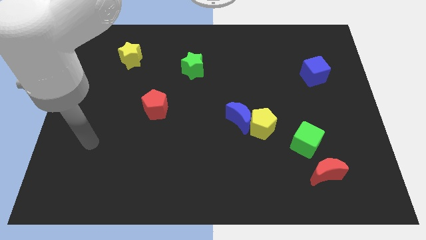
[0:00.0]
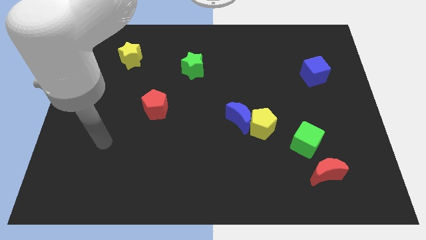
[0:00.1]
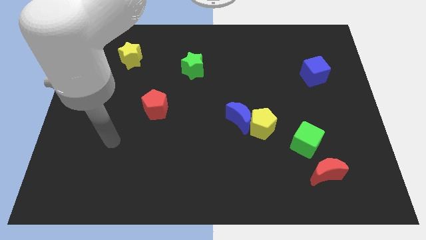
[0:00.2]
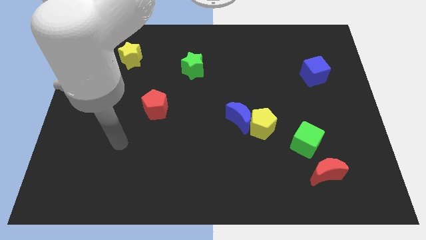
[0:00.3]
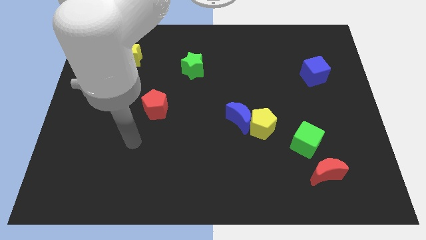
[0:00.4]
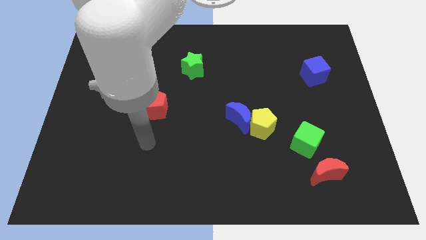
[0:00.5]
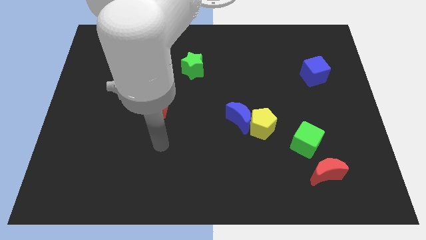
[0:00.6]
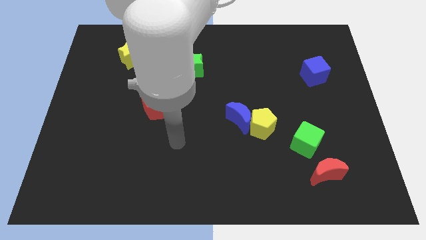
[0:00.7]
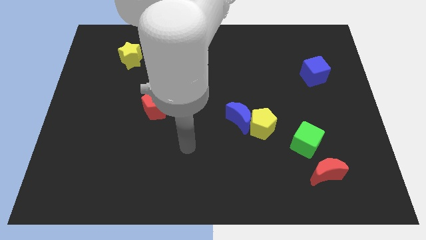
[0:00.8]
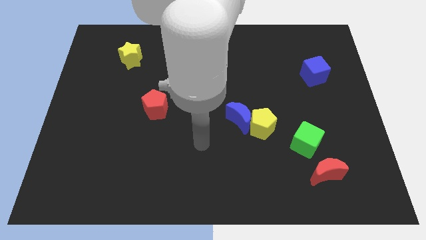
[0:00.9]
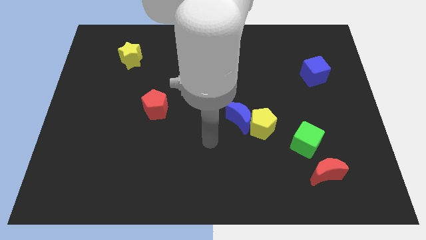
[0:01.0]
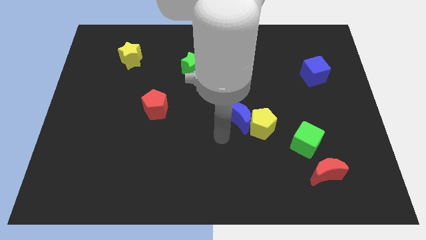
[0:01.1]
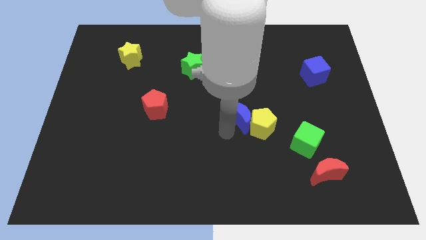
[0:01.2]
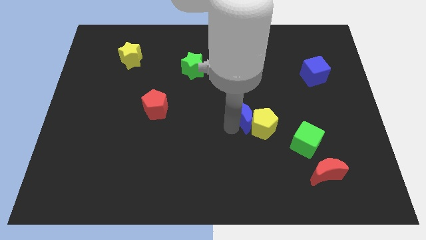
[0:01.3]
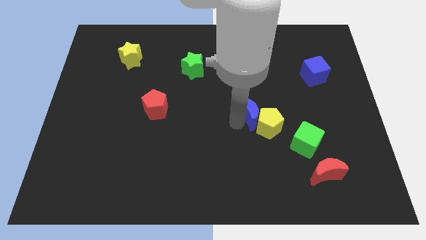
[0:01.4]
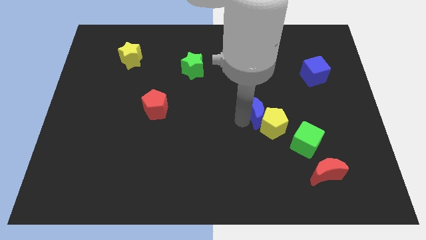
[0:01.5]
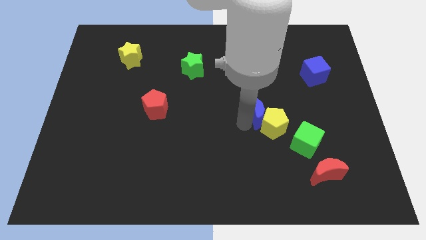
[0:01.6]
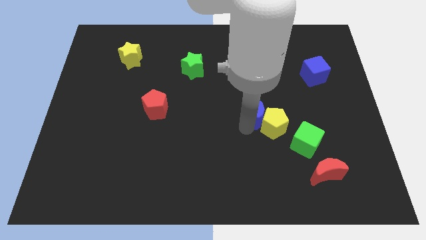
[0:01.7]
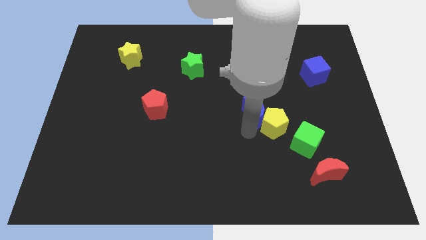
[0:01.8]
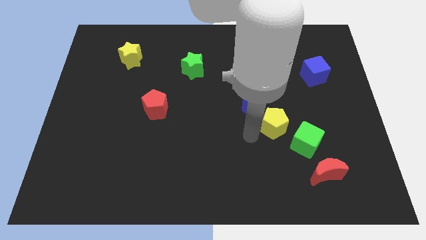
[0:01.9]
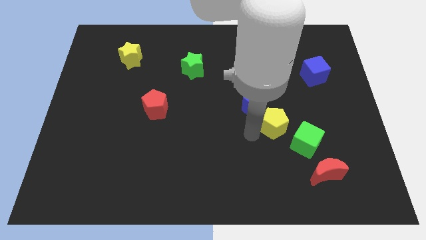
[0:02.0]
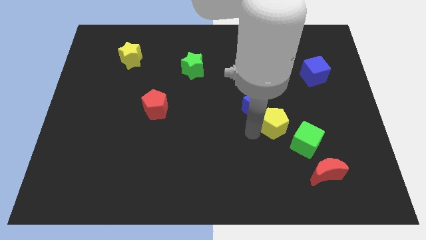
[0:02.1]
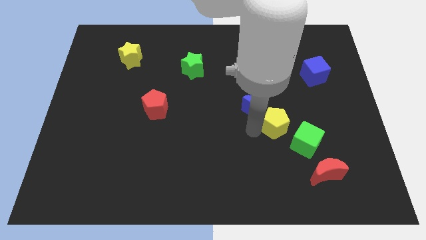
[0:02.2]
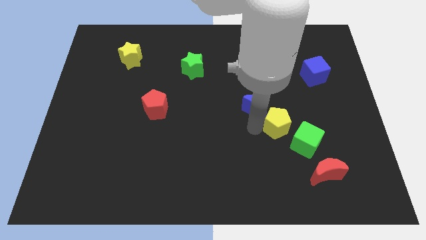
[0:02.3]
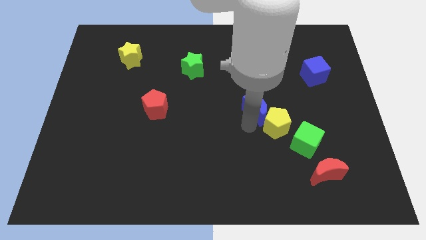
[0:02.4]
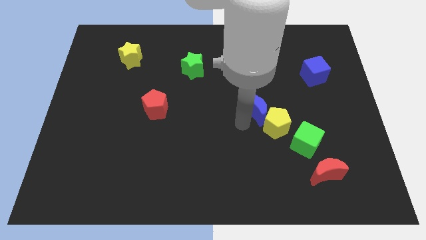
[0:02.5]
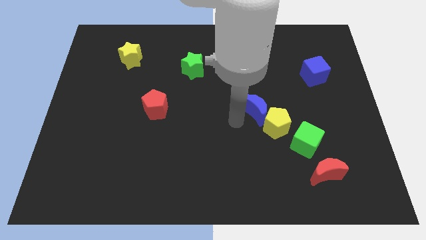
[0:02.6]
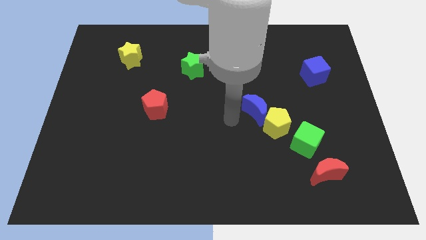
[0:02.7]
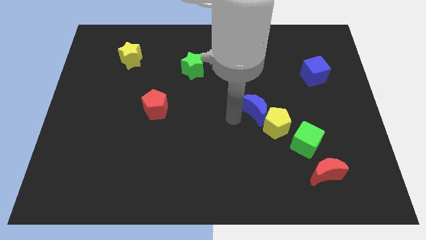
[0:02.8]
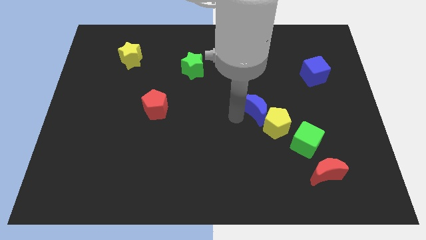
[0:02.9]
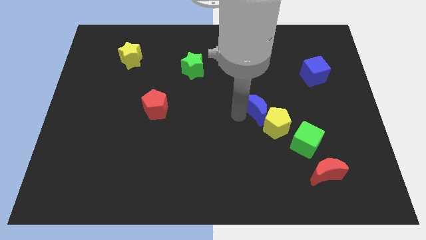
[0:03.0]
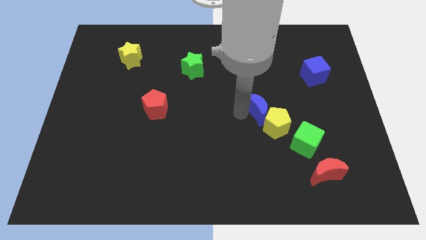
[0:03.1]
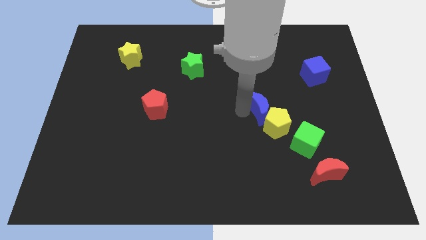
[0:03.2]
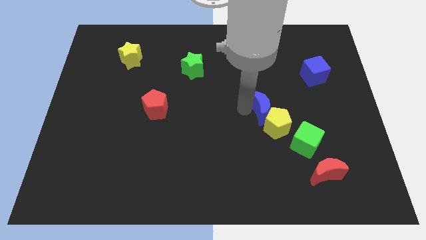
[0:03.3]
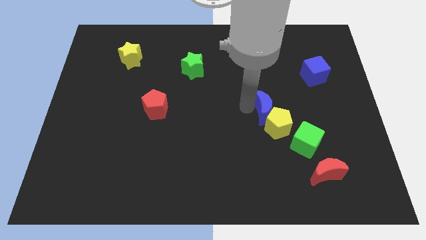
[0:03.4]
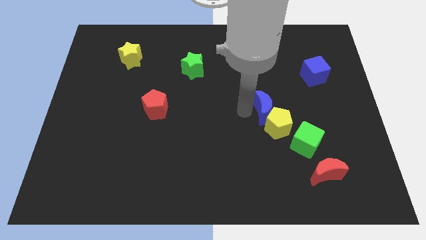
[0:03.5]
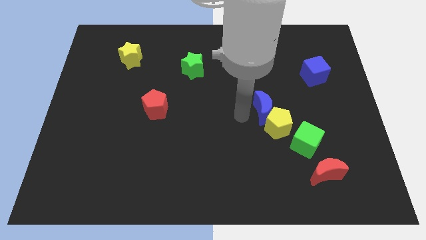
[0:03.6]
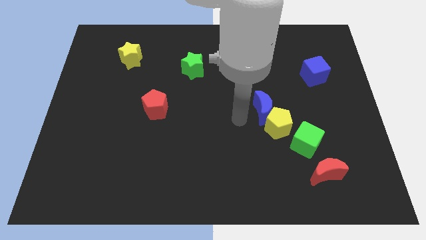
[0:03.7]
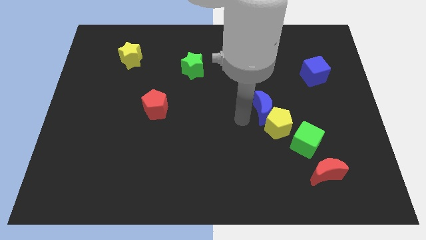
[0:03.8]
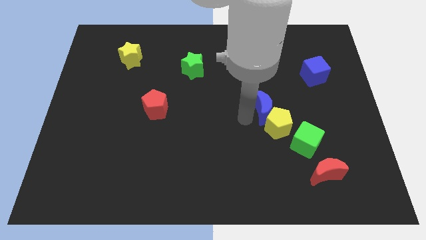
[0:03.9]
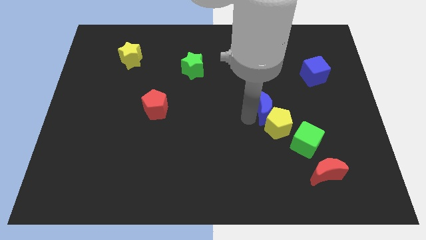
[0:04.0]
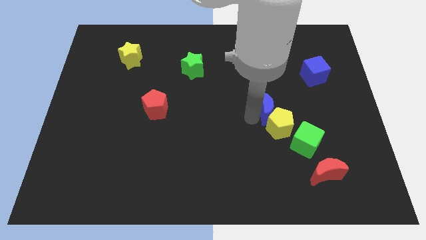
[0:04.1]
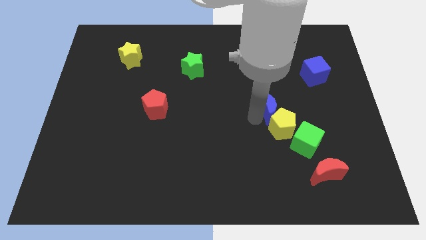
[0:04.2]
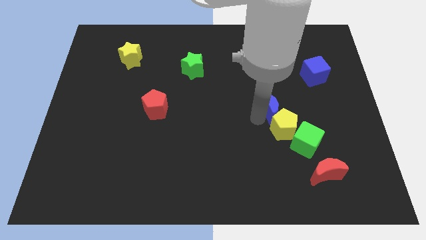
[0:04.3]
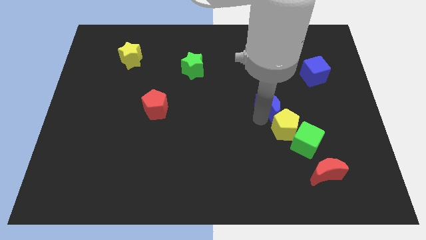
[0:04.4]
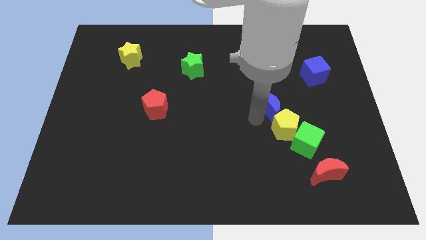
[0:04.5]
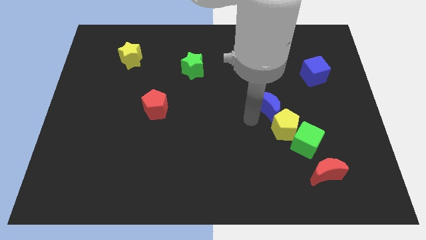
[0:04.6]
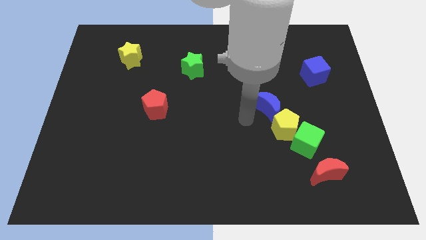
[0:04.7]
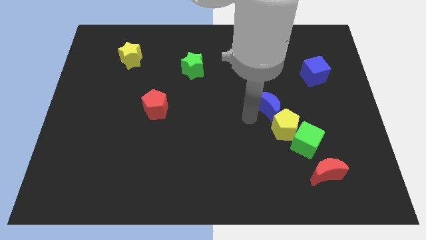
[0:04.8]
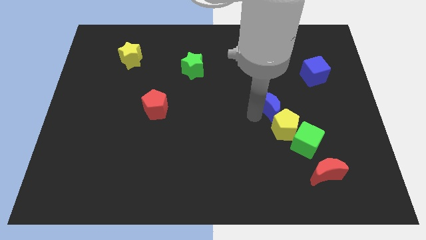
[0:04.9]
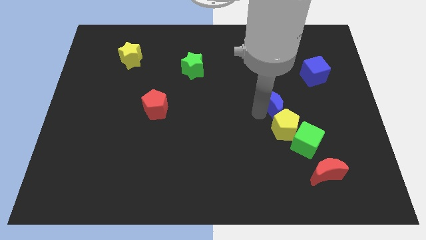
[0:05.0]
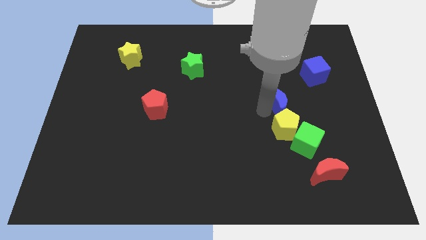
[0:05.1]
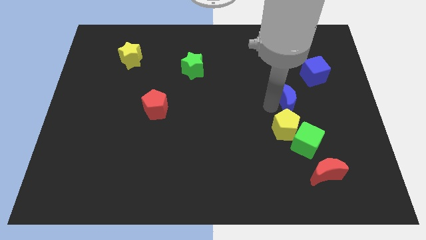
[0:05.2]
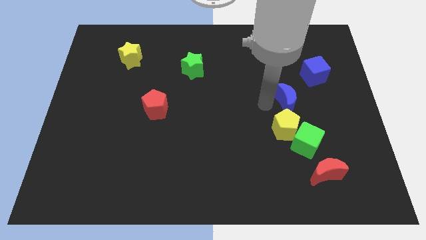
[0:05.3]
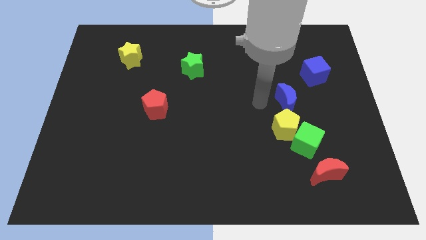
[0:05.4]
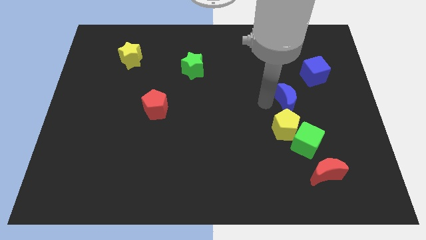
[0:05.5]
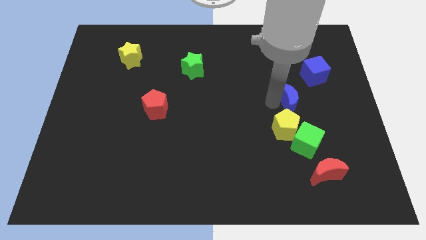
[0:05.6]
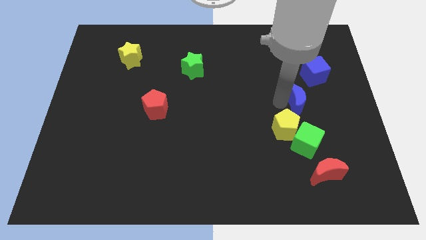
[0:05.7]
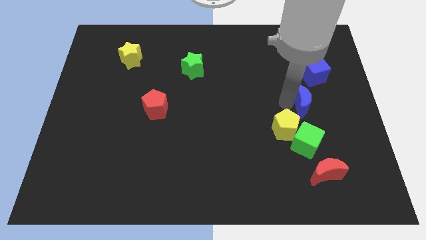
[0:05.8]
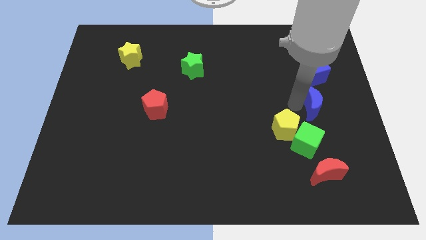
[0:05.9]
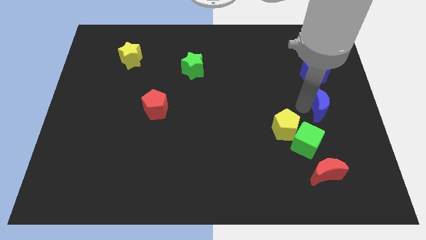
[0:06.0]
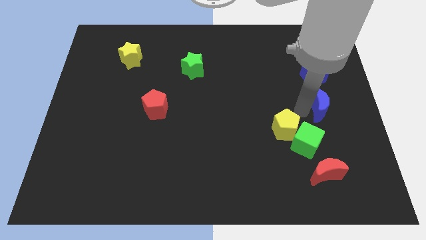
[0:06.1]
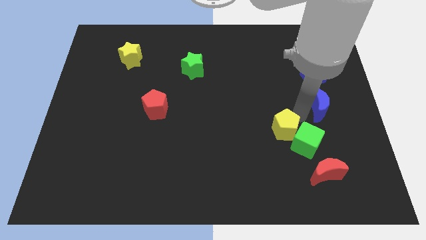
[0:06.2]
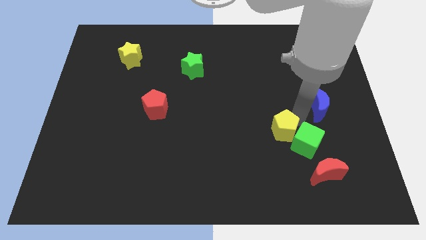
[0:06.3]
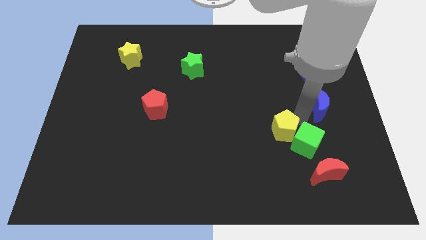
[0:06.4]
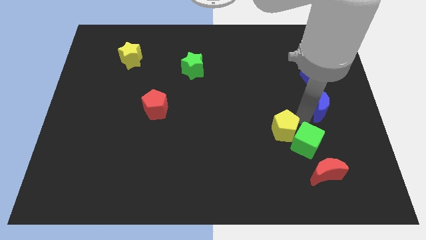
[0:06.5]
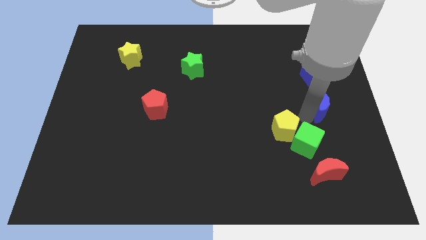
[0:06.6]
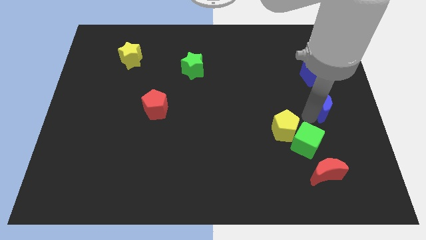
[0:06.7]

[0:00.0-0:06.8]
put the blue moon to the right side
